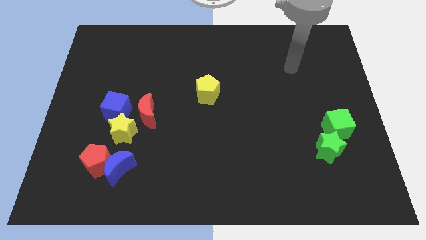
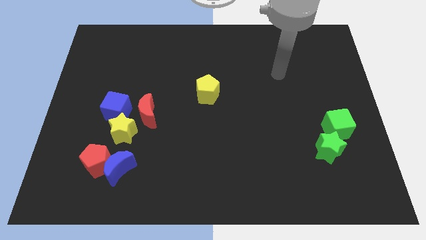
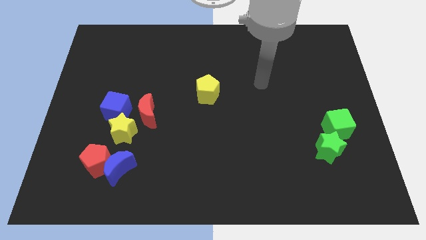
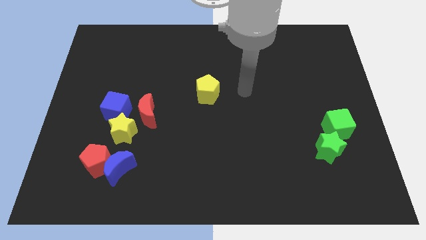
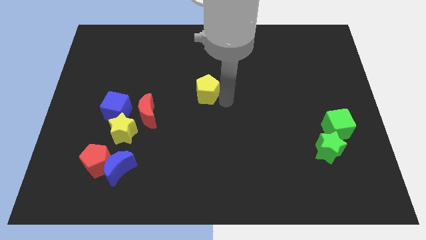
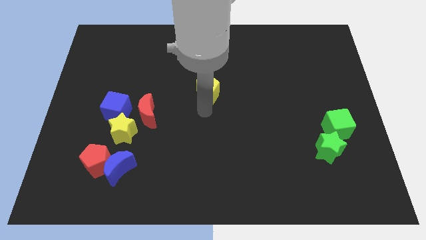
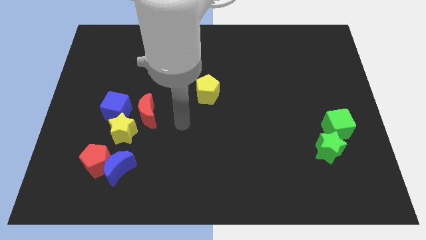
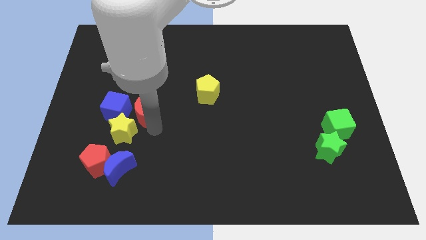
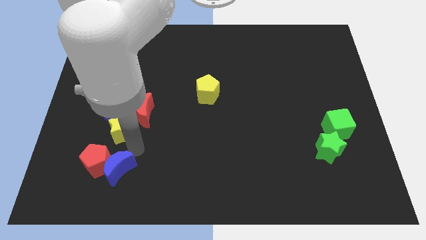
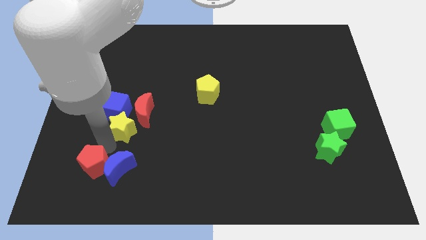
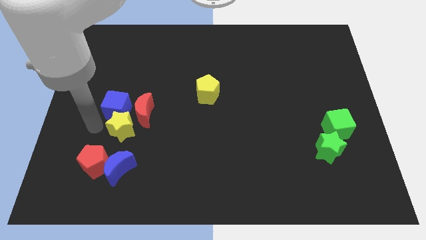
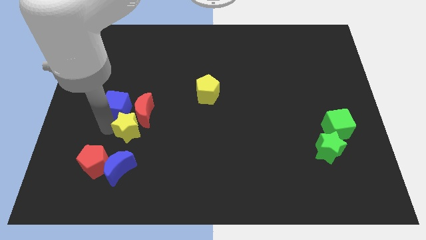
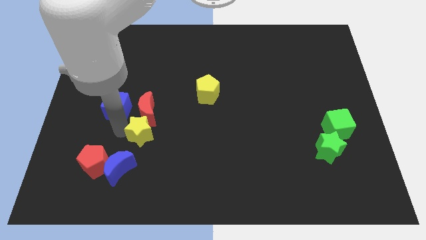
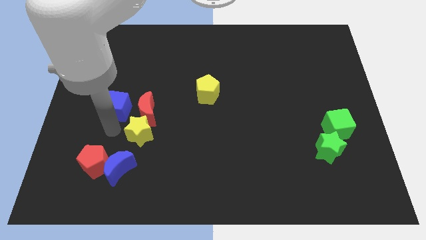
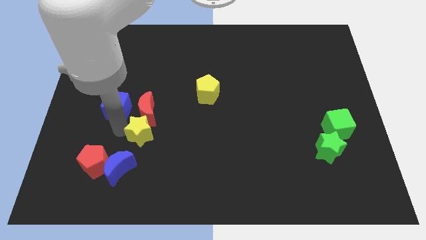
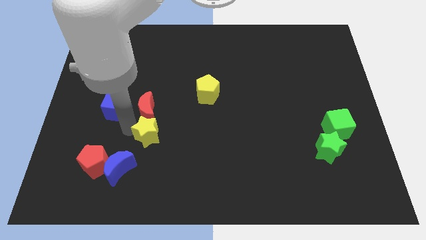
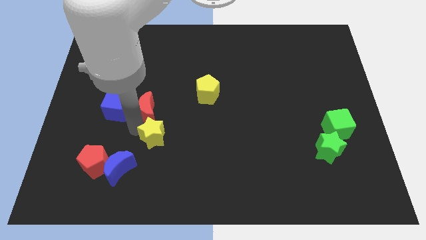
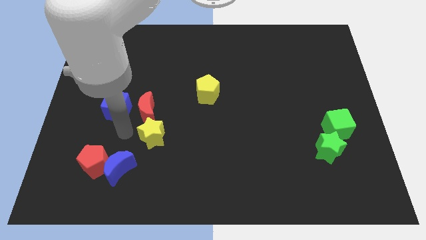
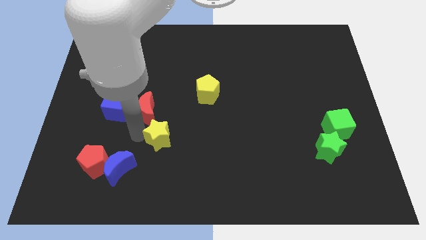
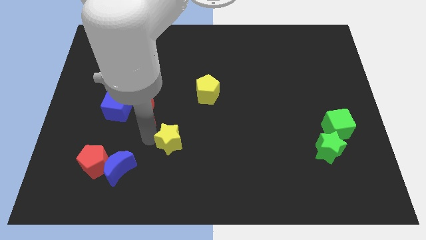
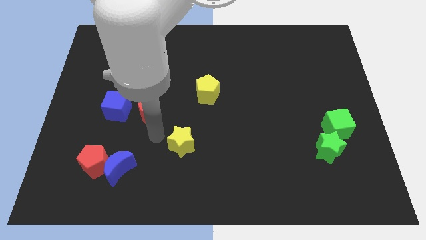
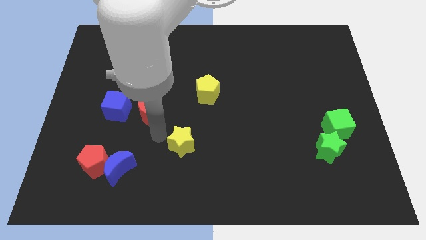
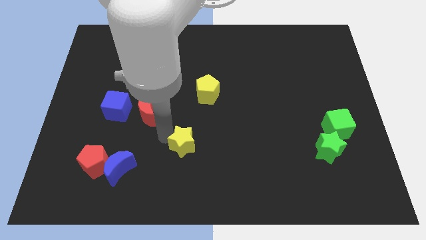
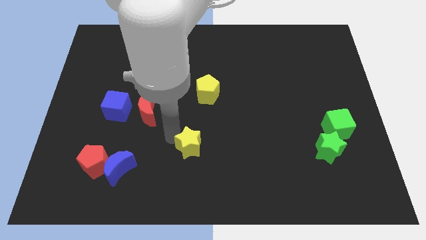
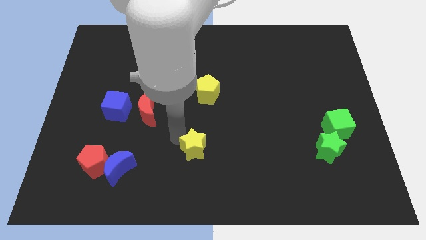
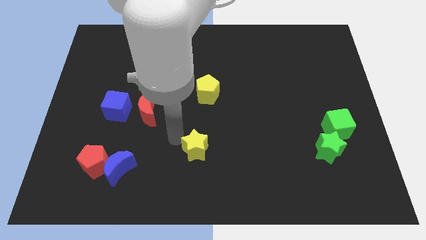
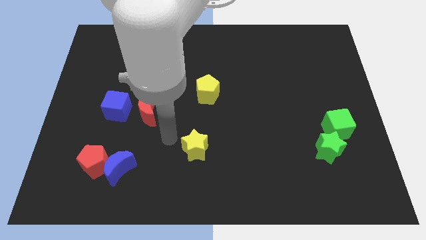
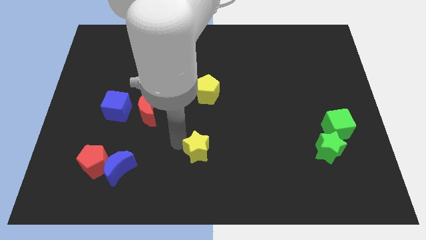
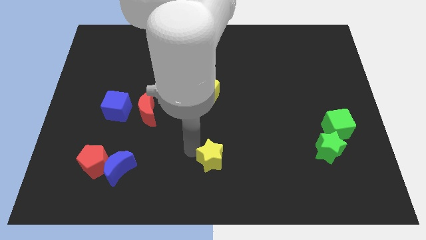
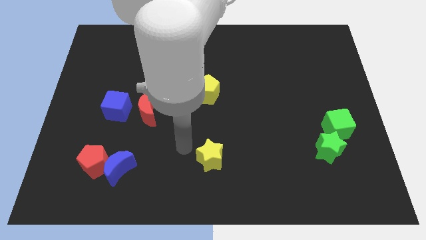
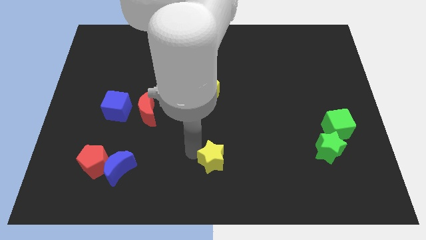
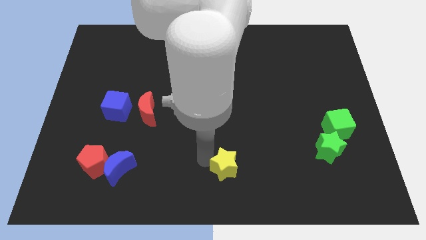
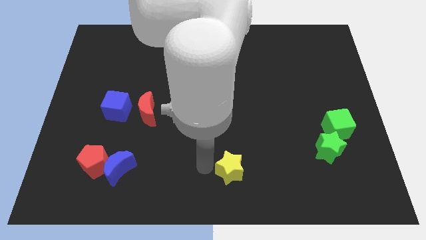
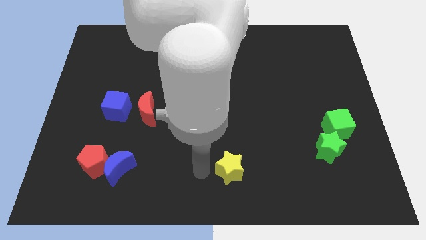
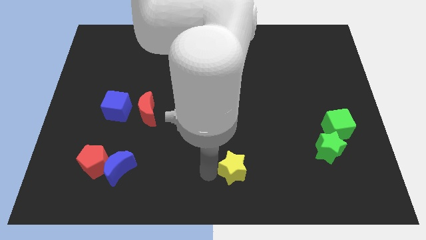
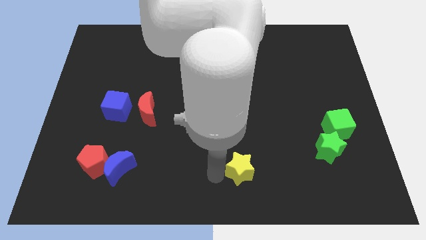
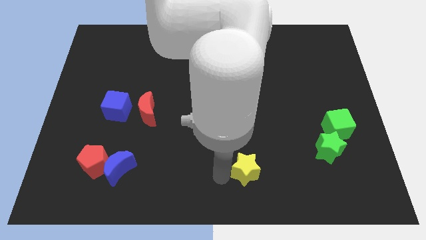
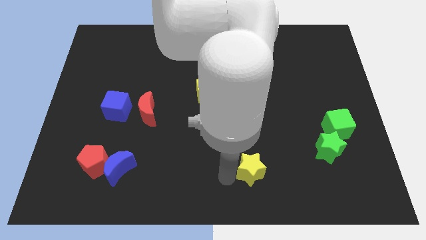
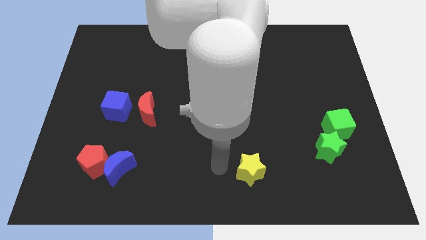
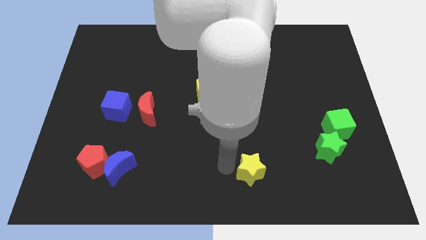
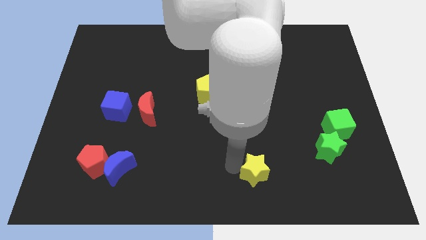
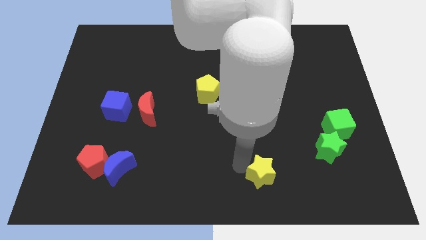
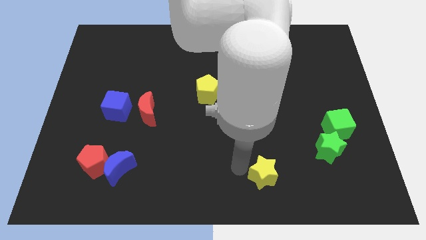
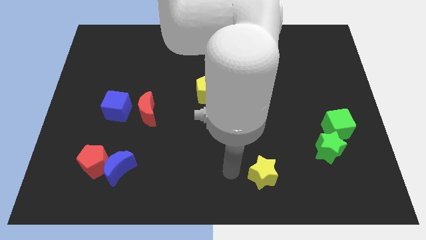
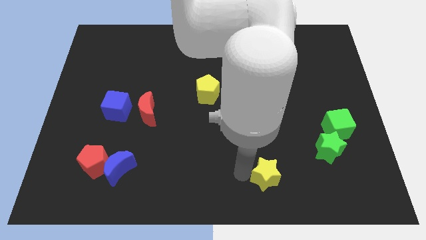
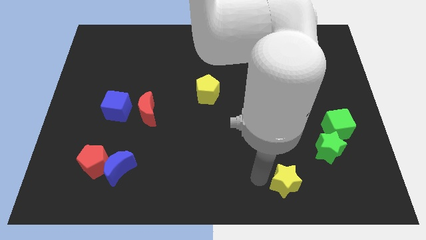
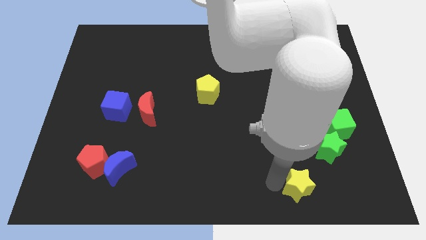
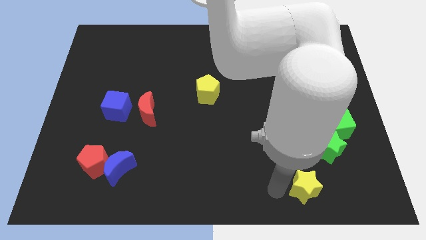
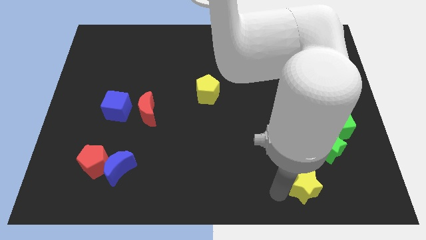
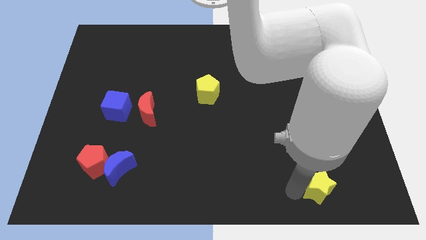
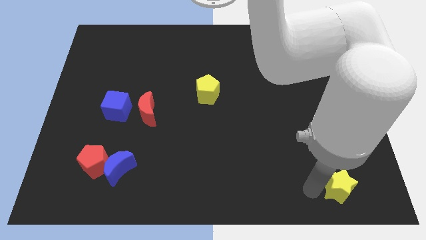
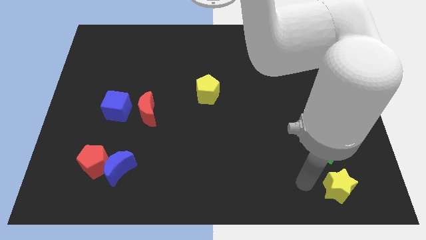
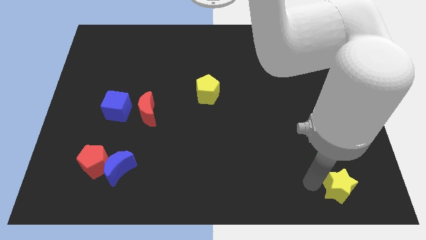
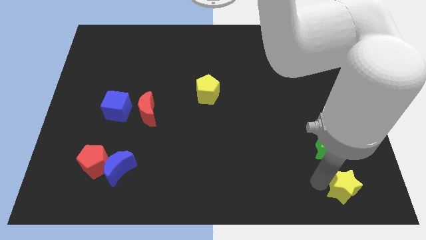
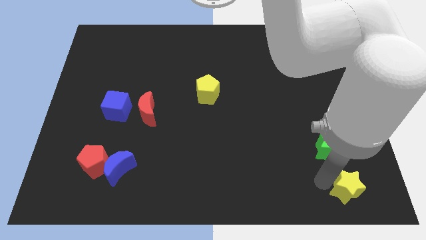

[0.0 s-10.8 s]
slide the yellow star to the bottom right

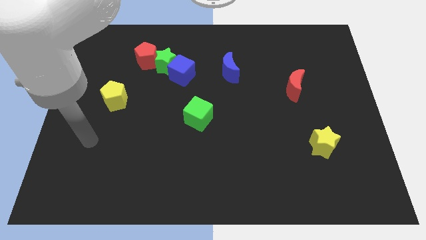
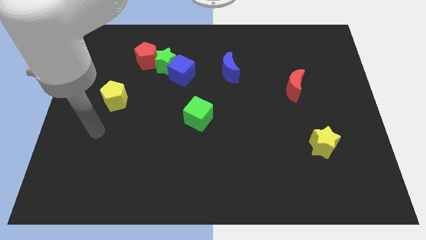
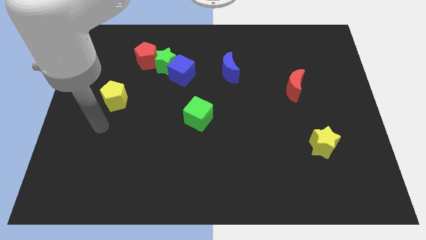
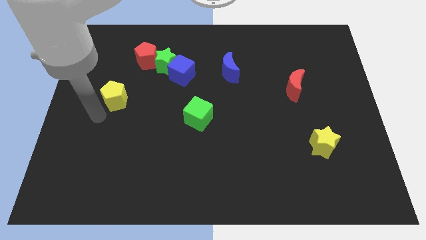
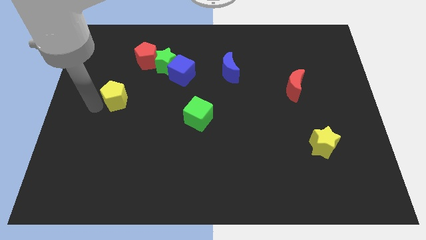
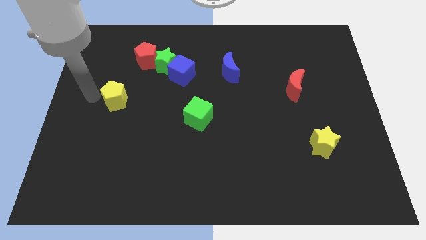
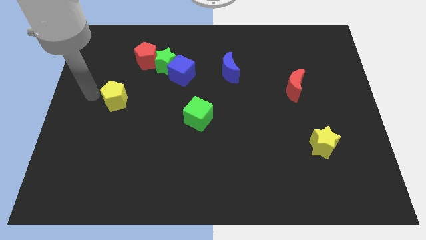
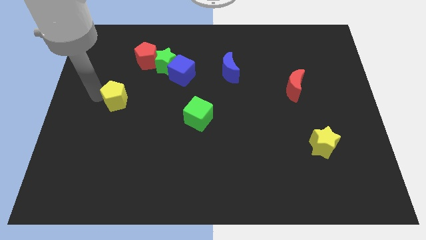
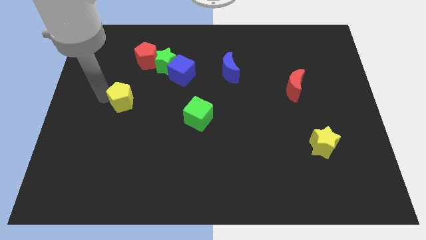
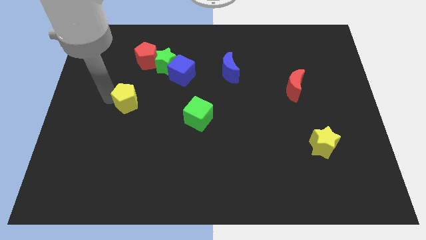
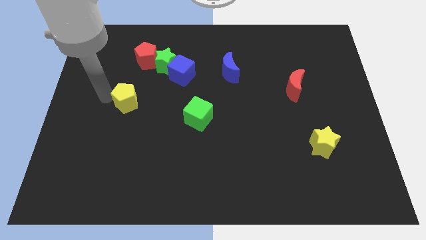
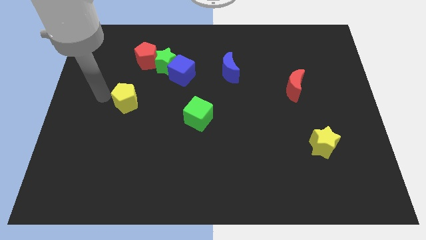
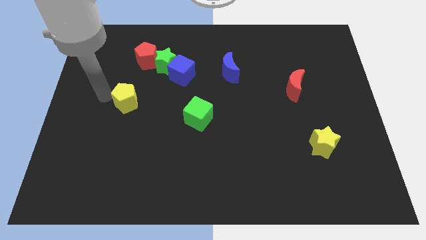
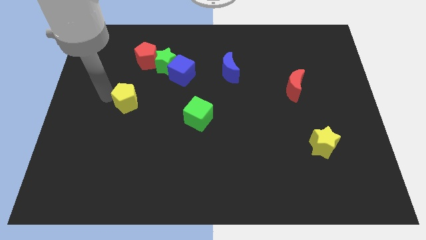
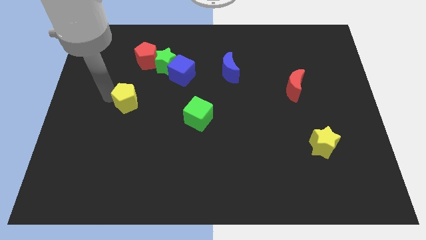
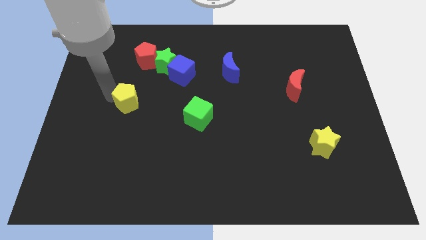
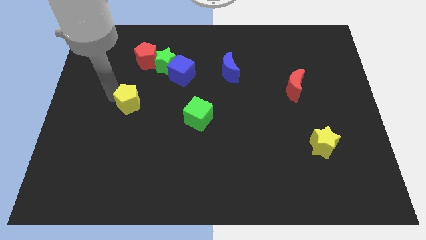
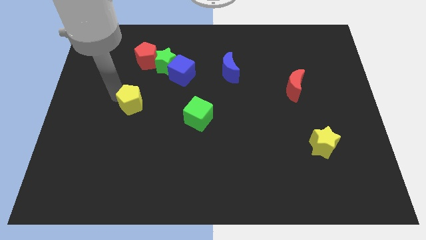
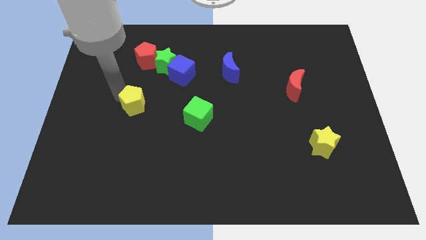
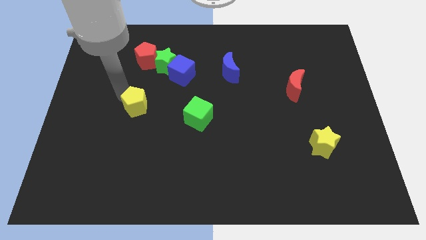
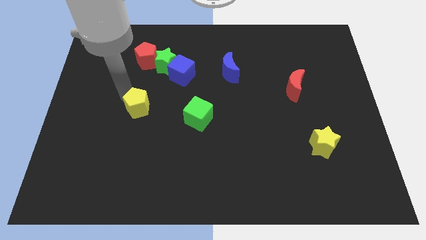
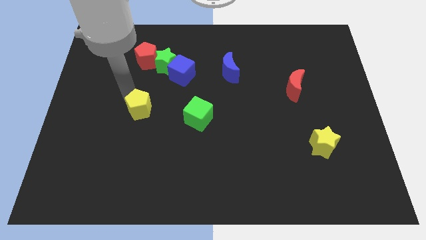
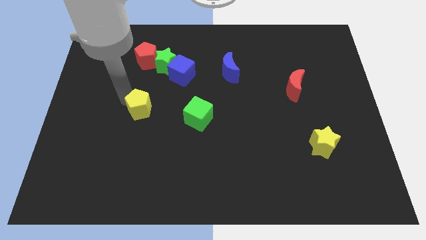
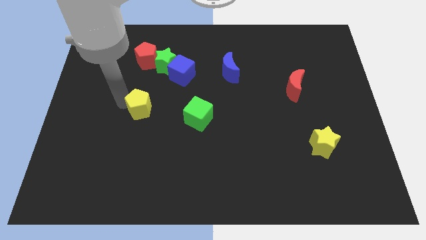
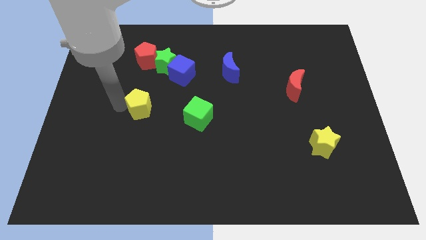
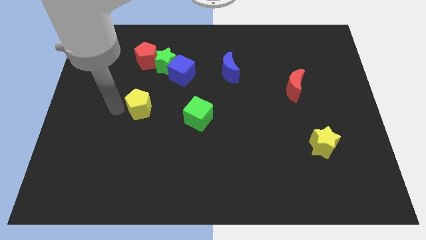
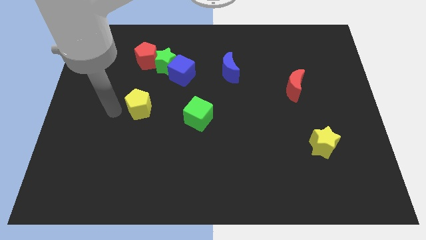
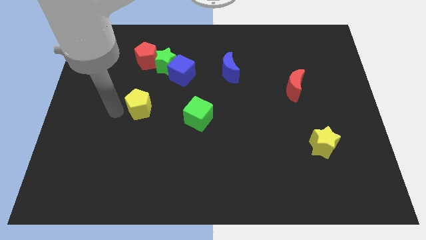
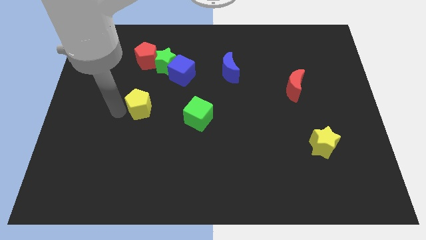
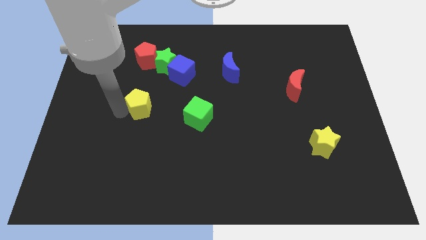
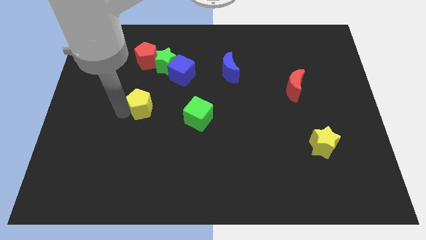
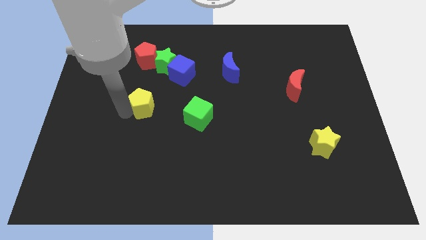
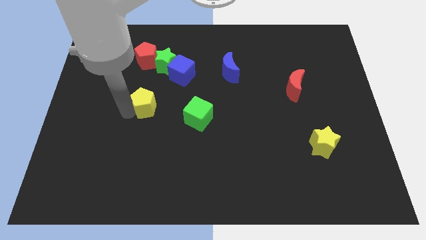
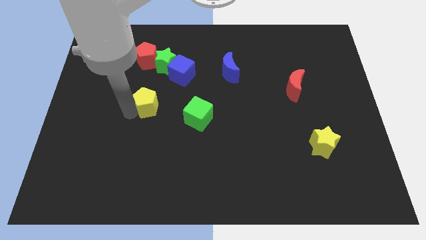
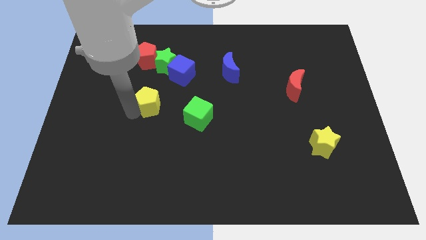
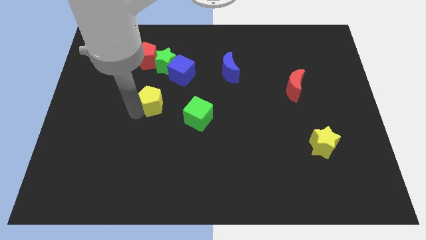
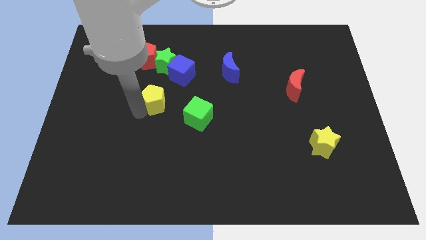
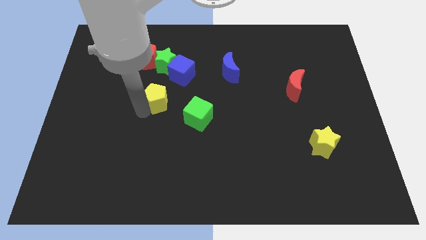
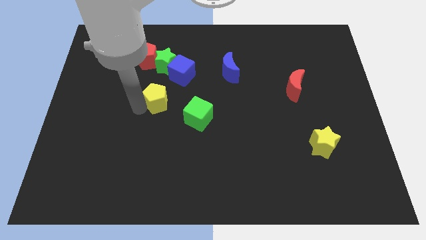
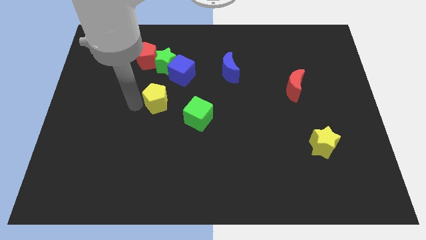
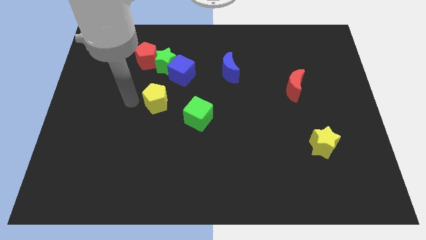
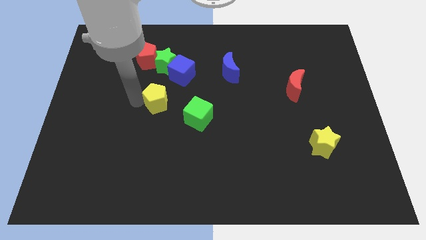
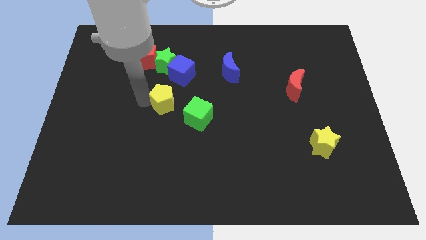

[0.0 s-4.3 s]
push the yellow pentagon to the center of the board
